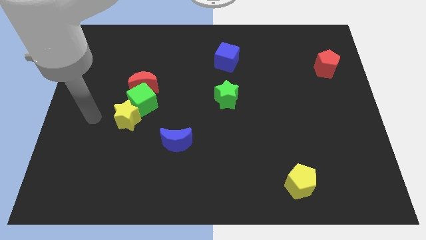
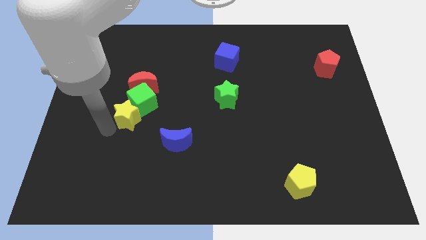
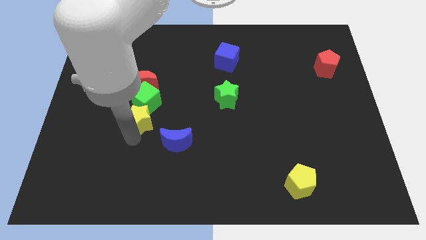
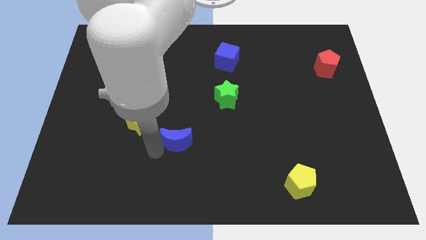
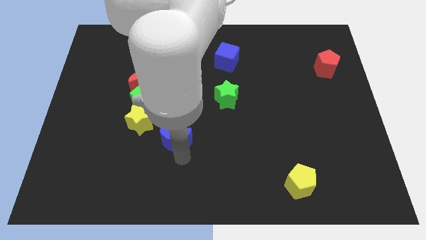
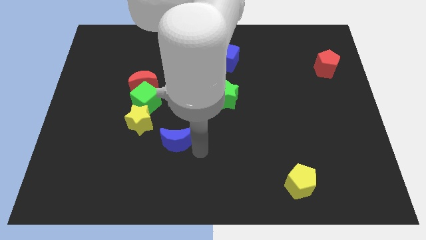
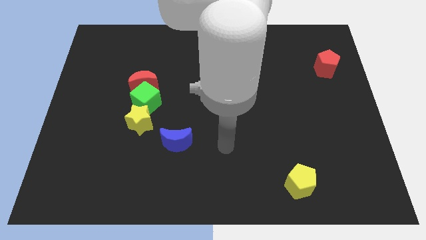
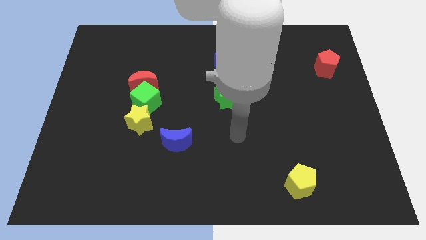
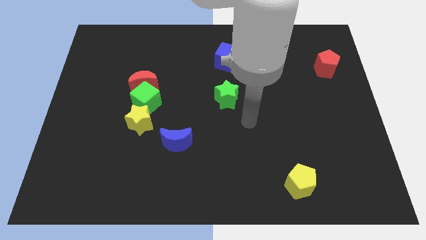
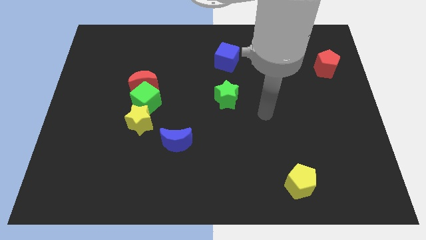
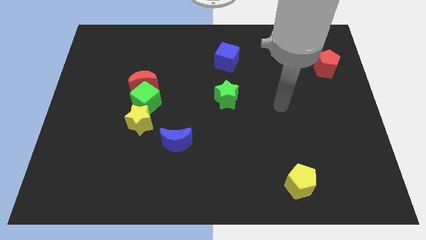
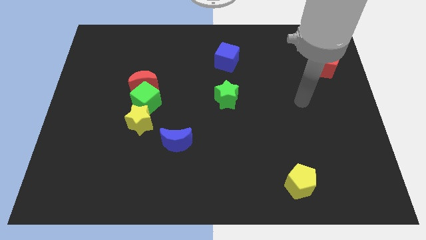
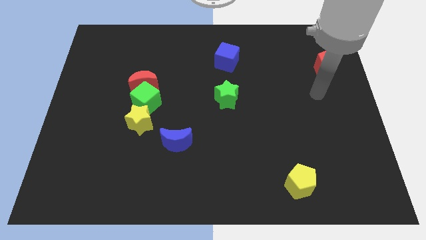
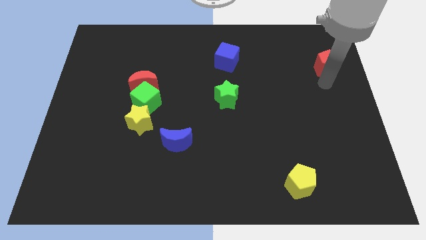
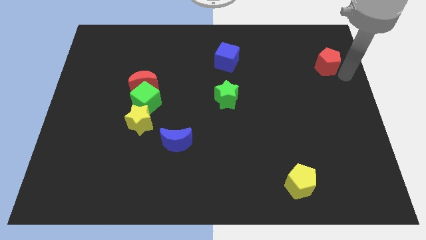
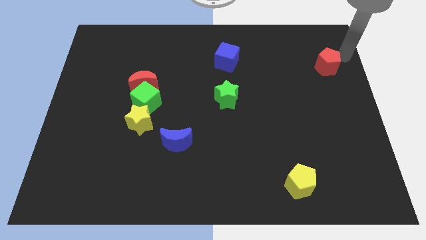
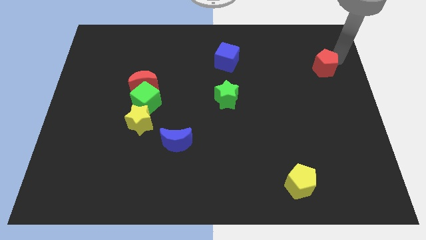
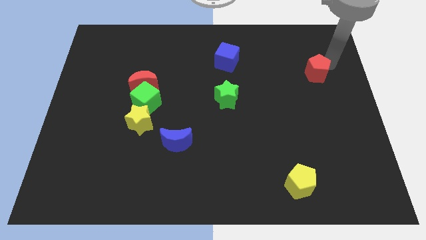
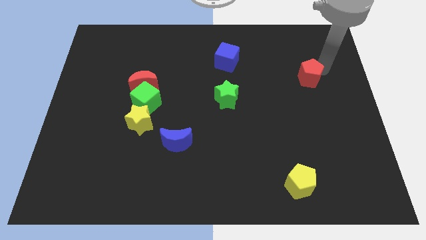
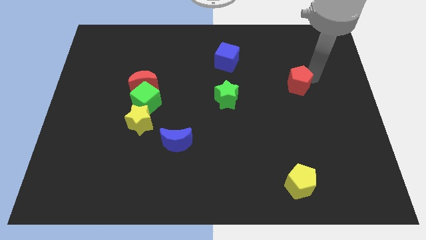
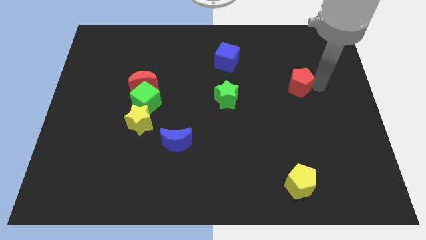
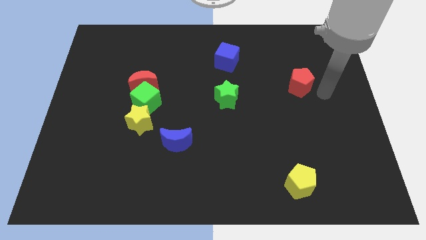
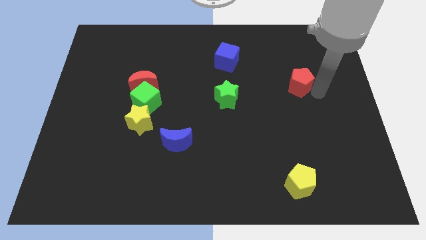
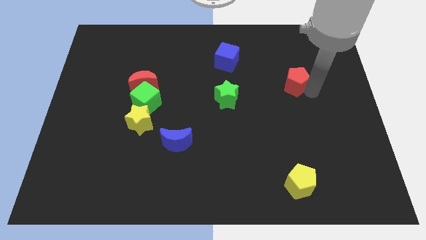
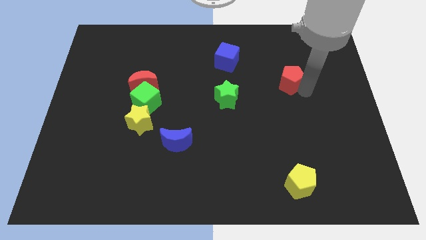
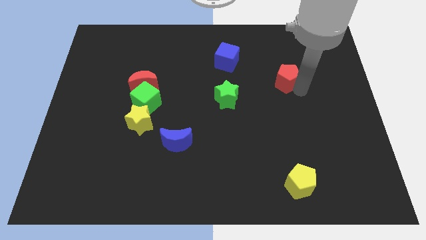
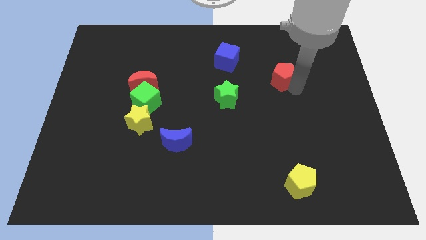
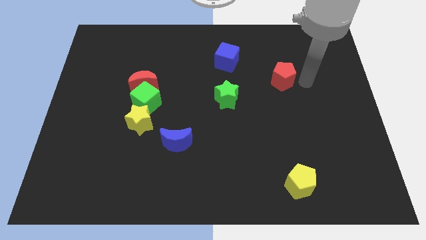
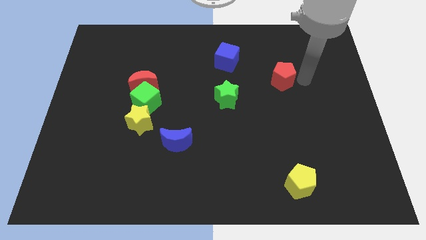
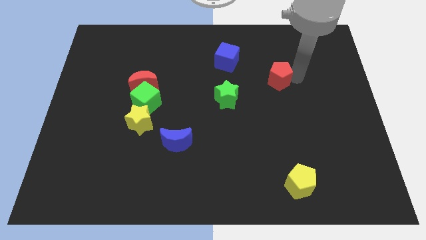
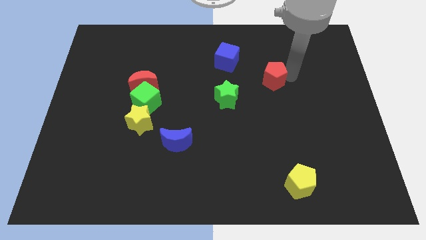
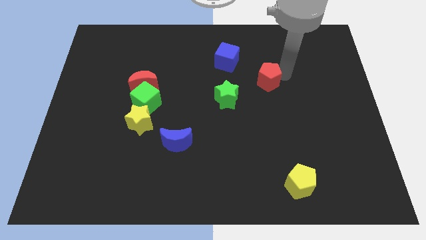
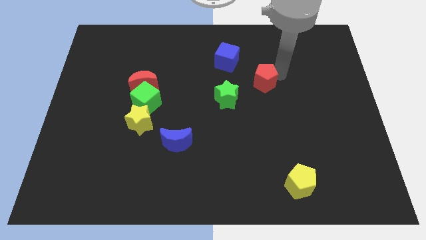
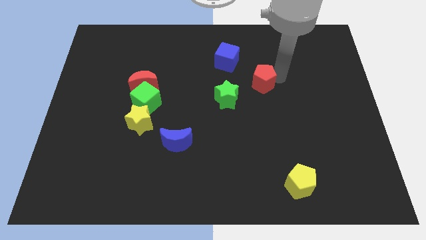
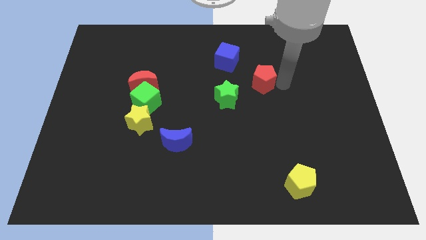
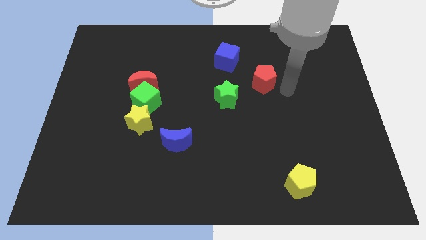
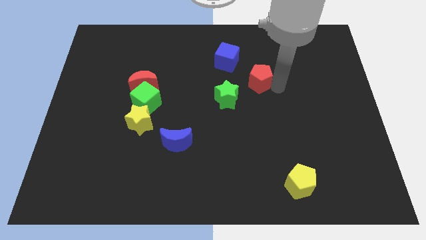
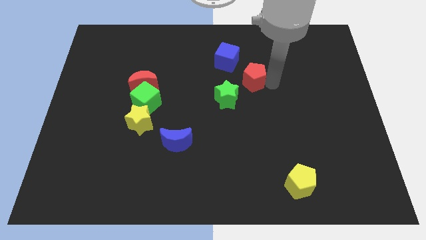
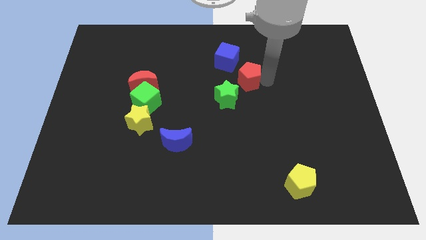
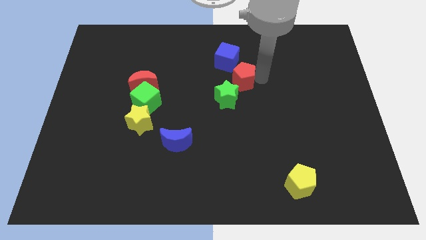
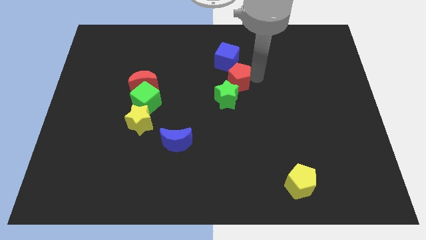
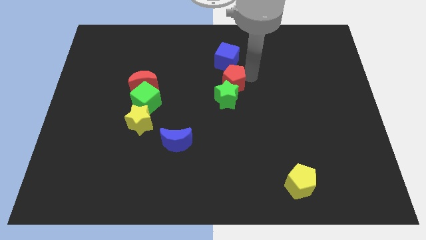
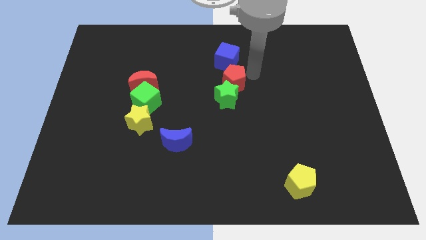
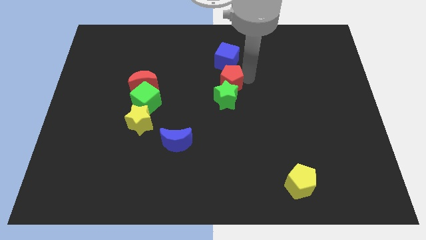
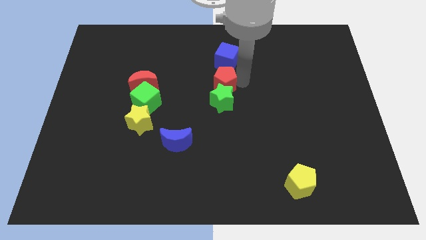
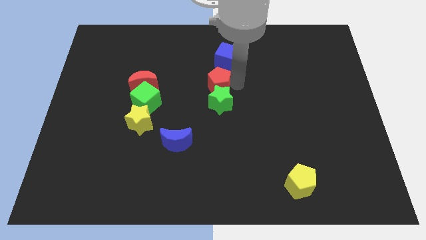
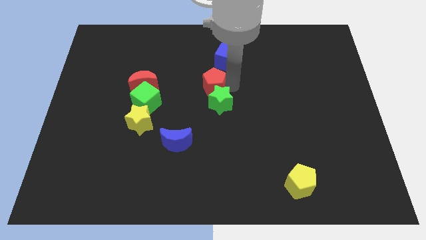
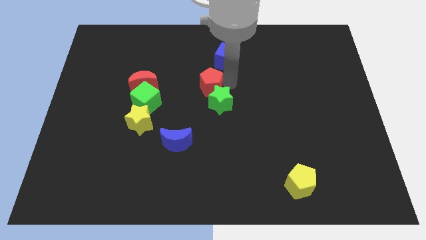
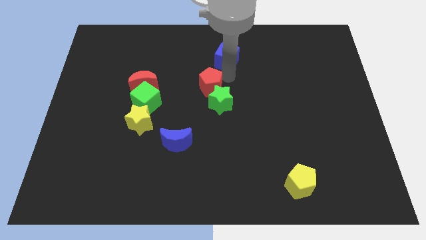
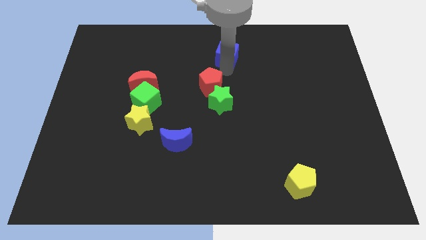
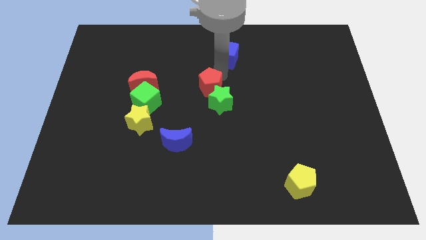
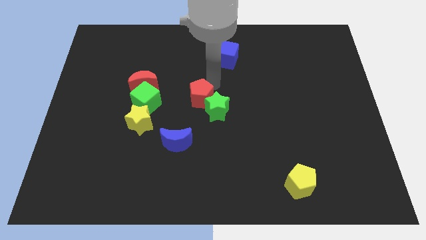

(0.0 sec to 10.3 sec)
put the red pentagon just left of the green star

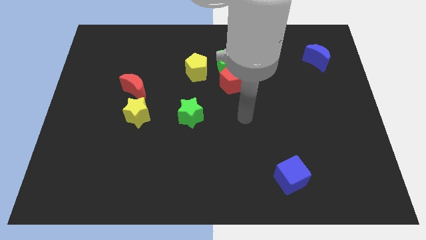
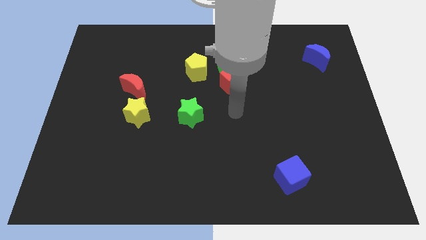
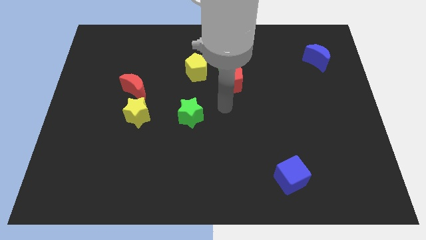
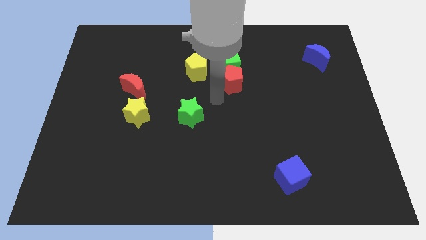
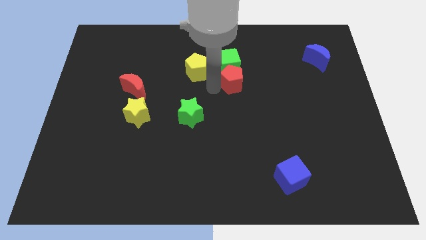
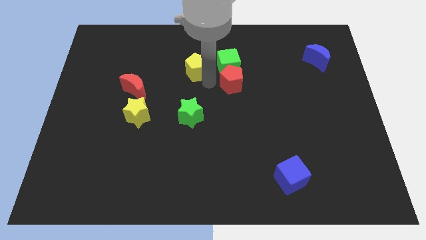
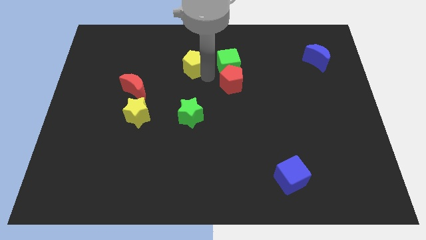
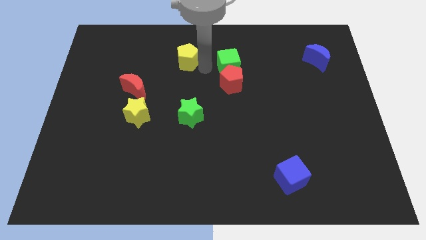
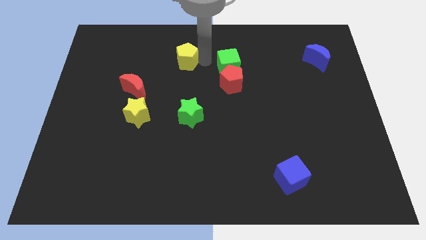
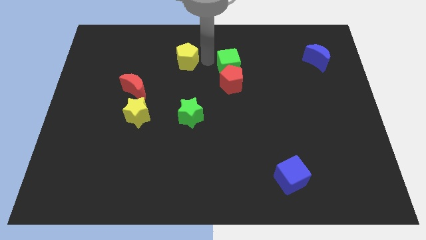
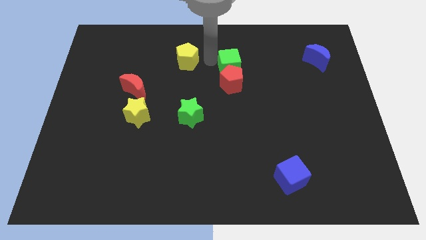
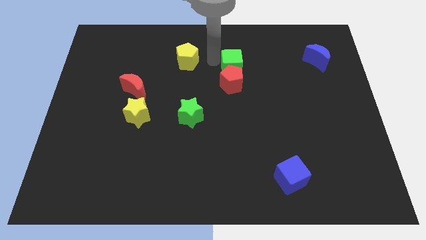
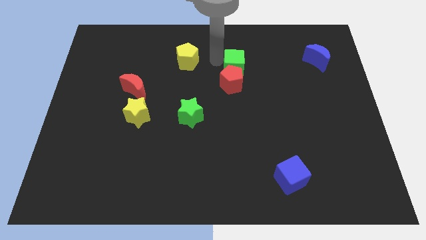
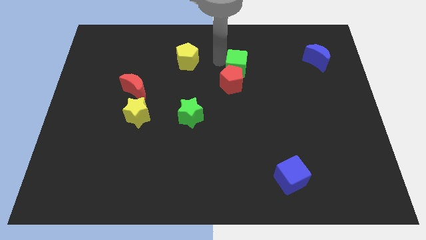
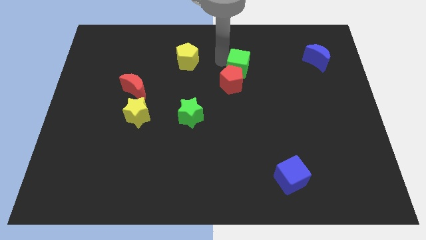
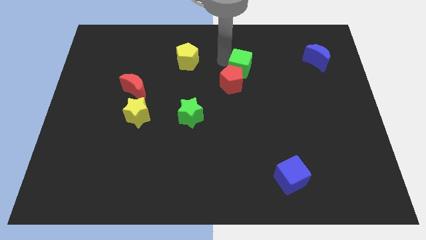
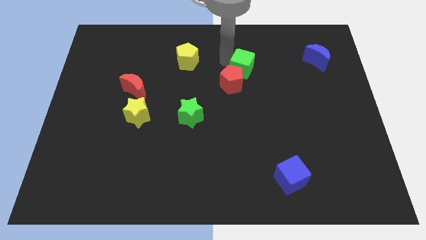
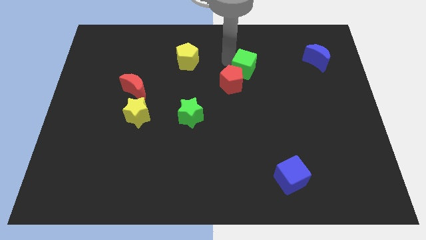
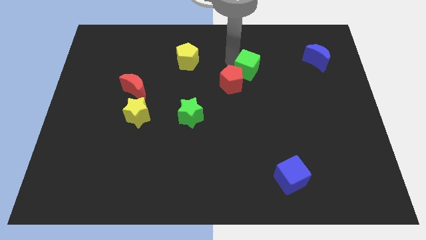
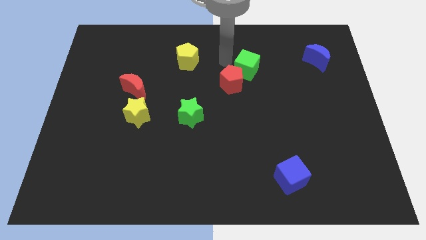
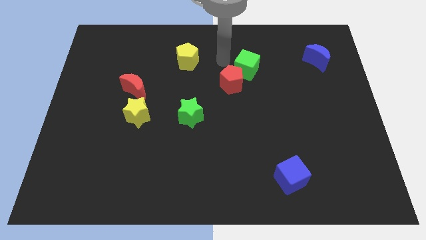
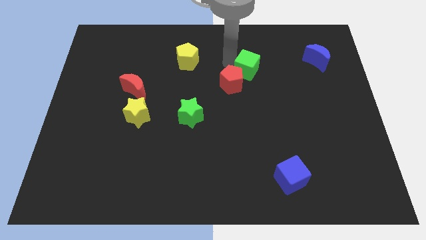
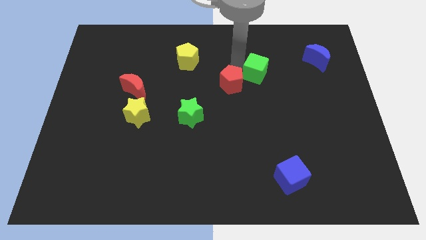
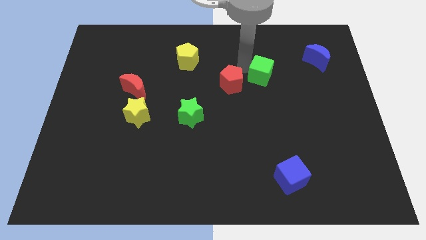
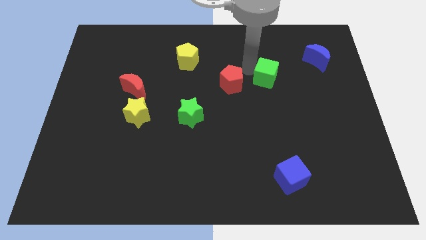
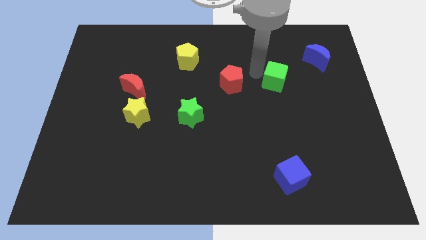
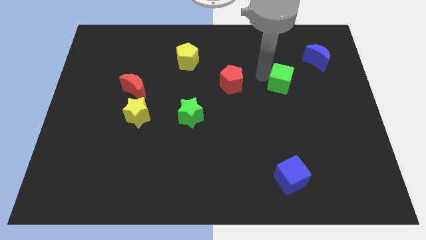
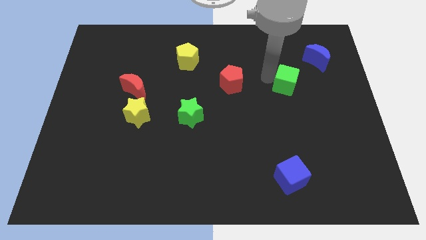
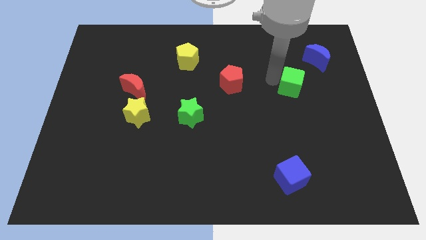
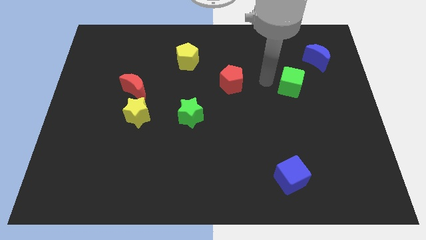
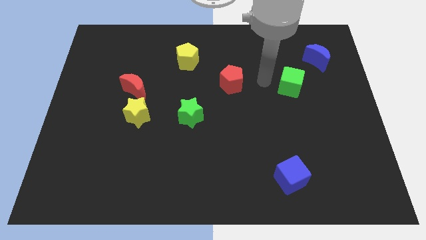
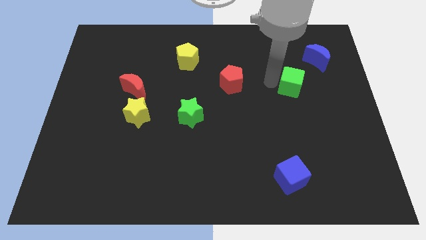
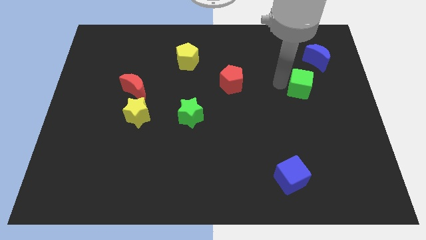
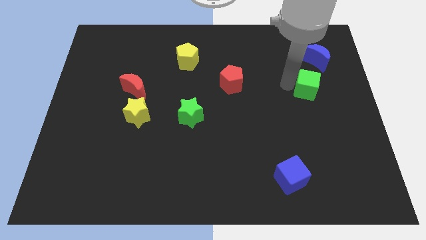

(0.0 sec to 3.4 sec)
slide the green cube to the bottom of the blue moon
